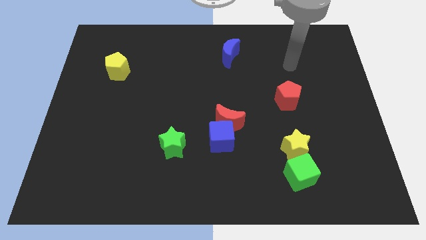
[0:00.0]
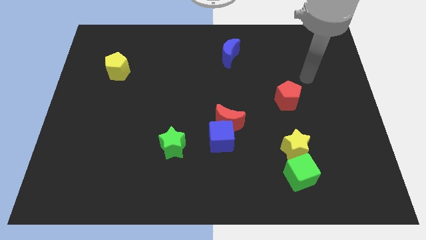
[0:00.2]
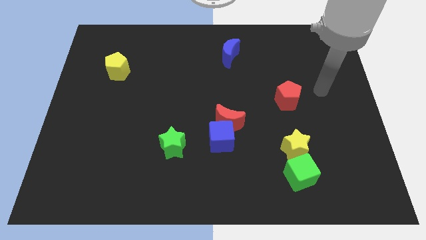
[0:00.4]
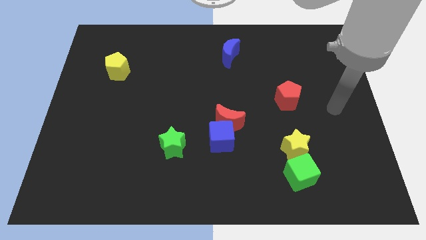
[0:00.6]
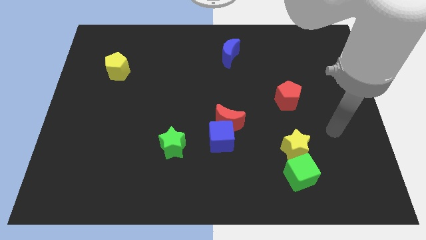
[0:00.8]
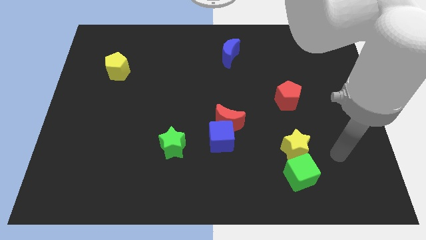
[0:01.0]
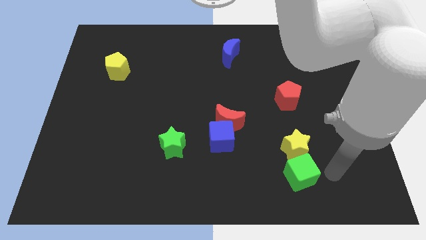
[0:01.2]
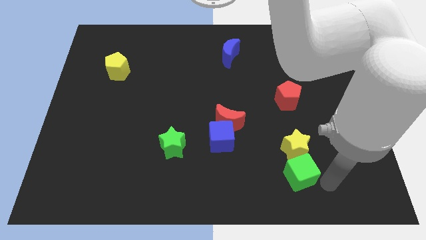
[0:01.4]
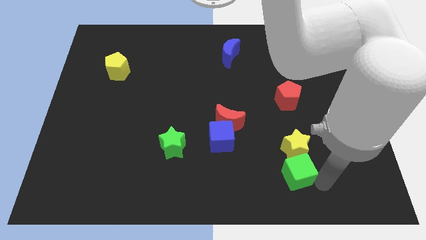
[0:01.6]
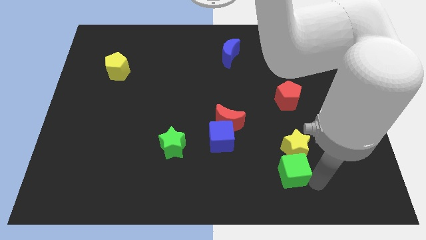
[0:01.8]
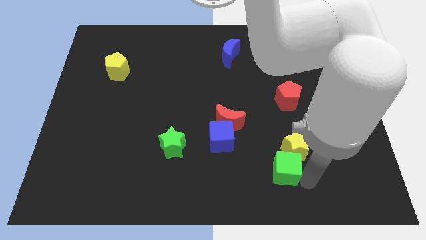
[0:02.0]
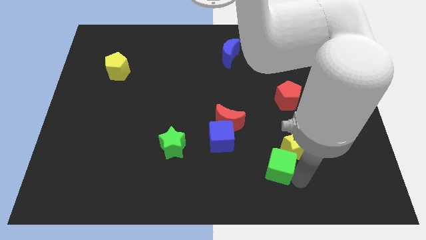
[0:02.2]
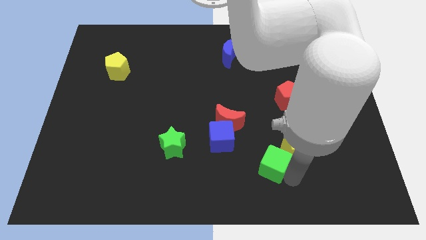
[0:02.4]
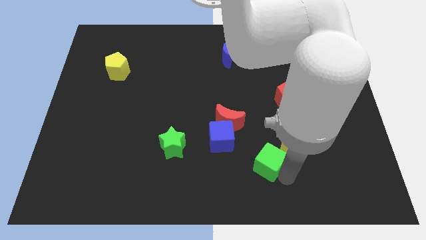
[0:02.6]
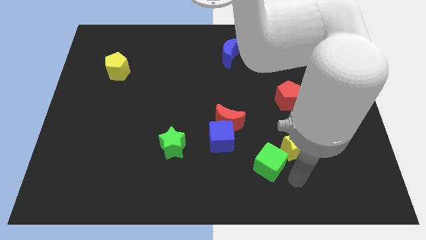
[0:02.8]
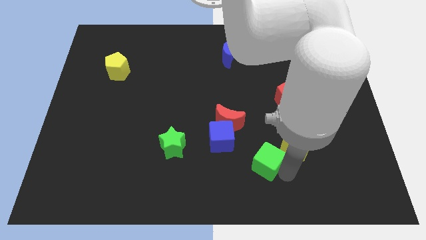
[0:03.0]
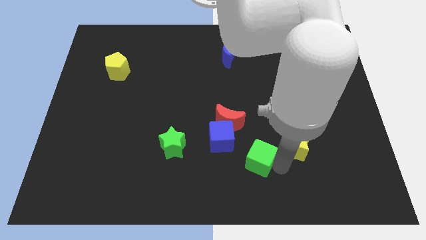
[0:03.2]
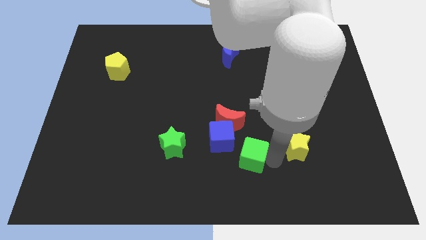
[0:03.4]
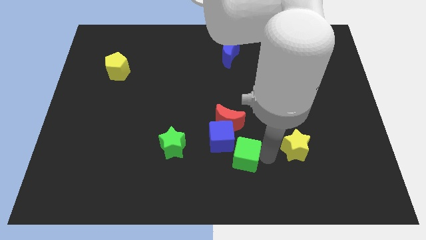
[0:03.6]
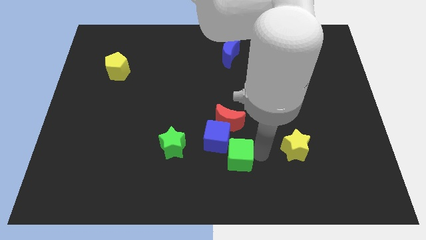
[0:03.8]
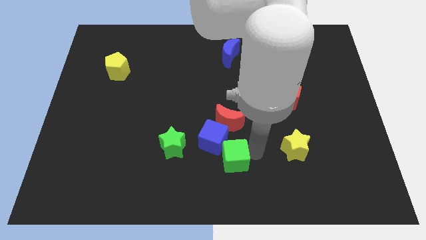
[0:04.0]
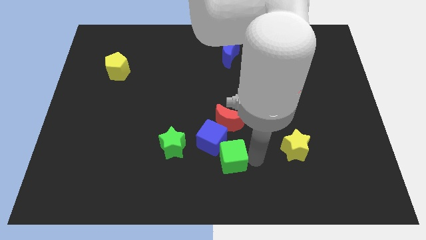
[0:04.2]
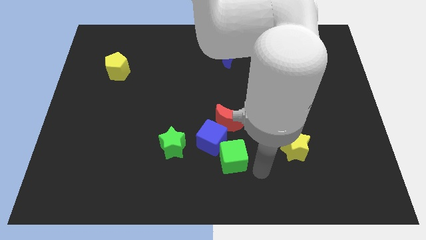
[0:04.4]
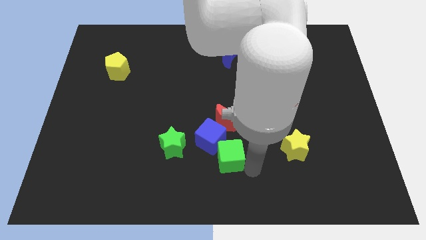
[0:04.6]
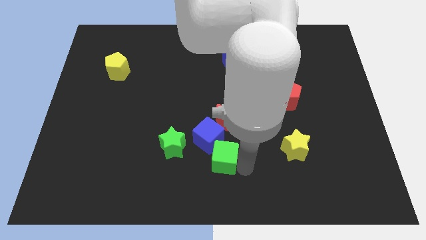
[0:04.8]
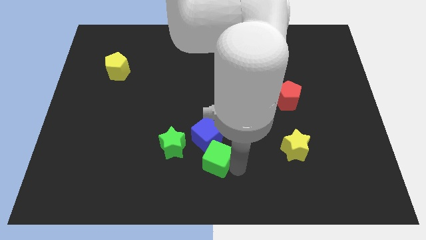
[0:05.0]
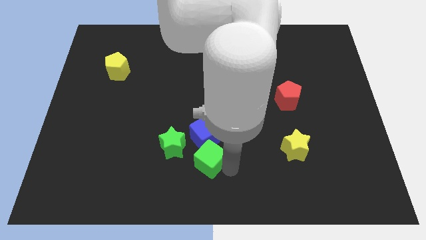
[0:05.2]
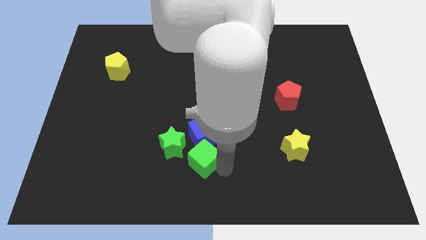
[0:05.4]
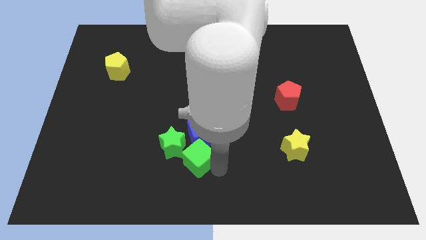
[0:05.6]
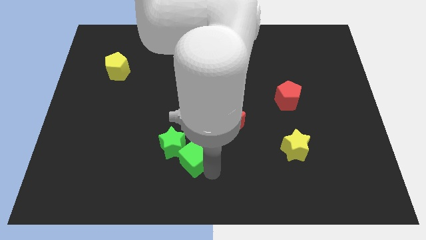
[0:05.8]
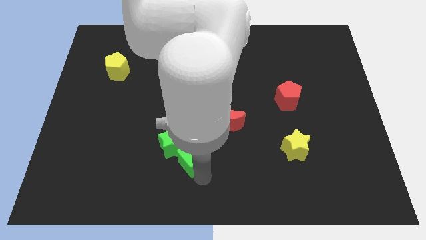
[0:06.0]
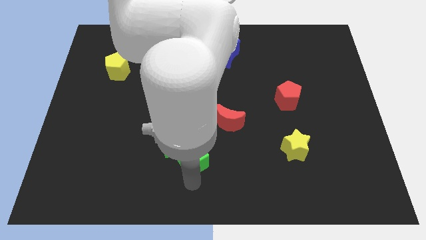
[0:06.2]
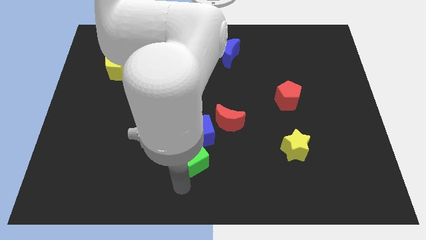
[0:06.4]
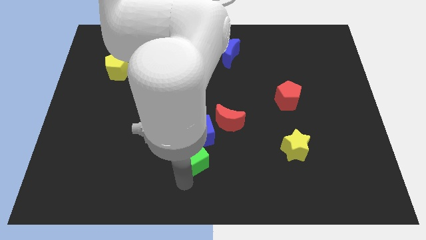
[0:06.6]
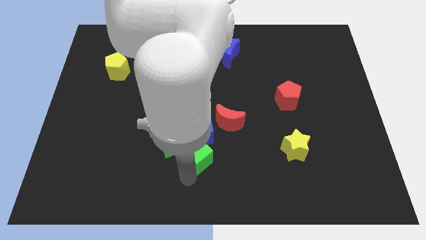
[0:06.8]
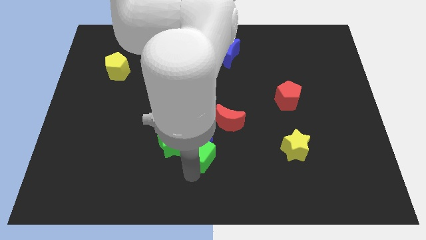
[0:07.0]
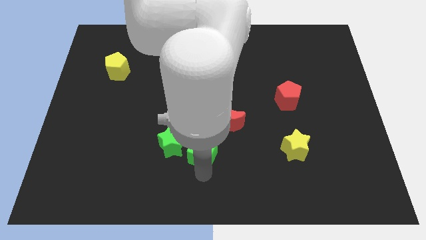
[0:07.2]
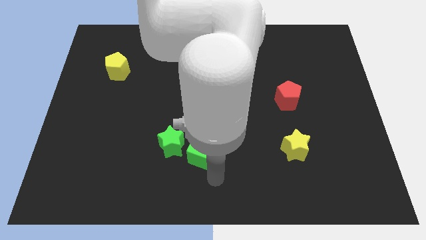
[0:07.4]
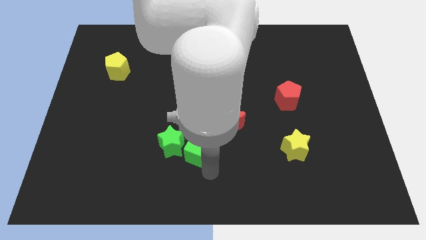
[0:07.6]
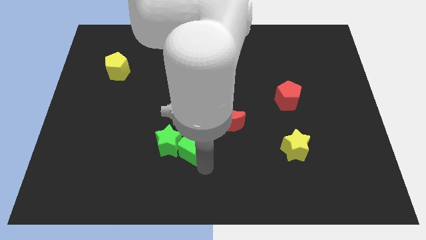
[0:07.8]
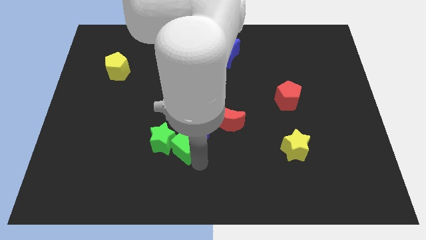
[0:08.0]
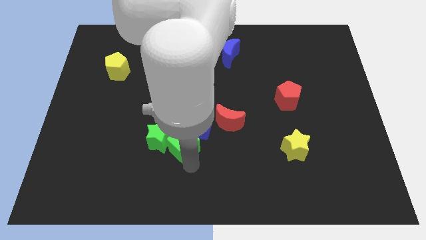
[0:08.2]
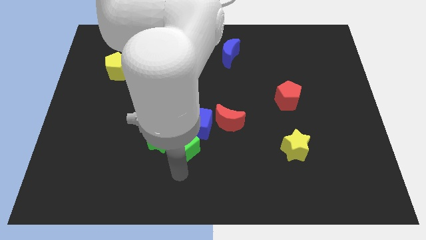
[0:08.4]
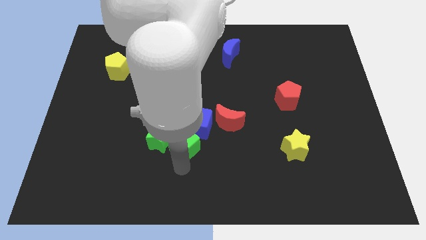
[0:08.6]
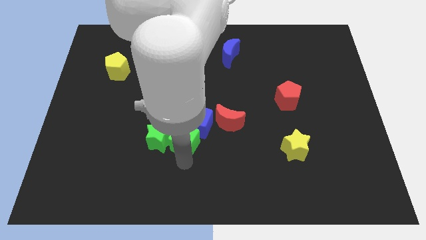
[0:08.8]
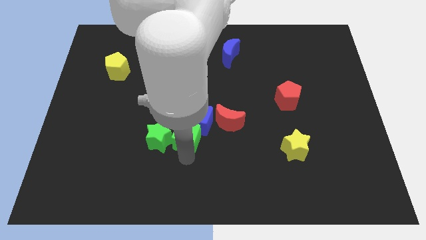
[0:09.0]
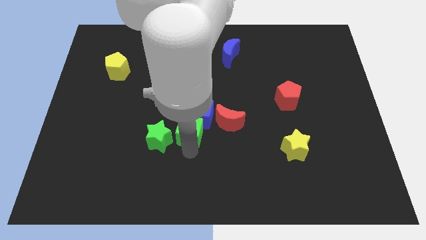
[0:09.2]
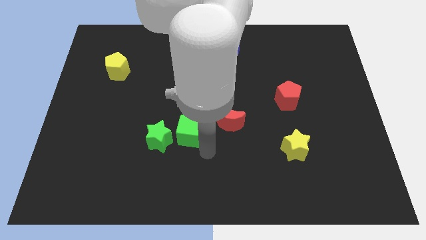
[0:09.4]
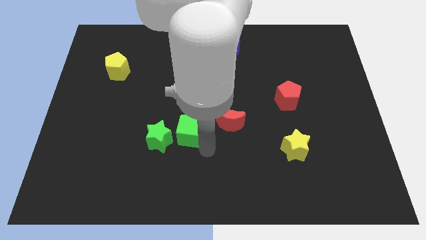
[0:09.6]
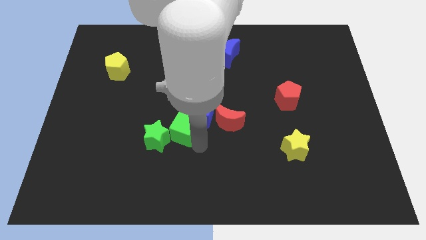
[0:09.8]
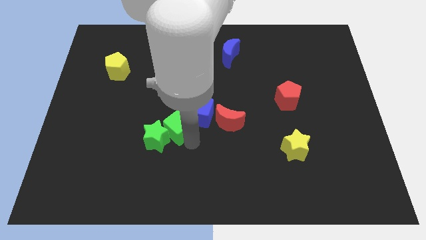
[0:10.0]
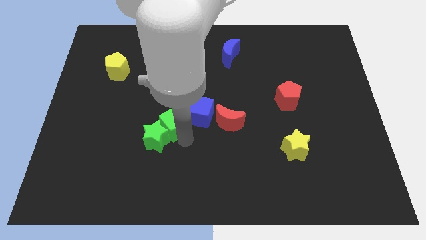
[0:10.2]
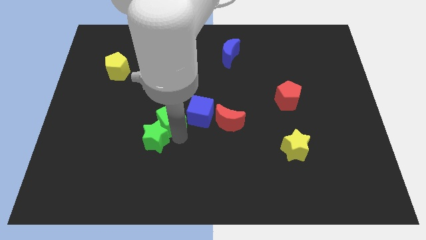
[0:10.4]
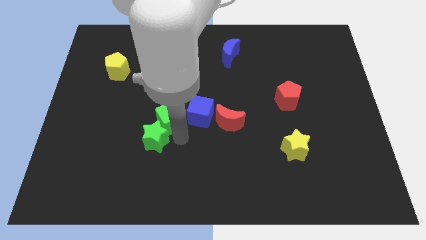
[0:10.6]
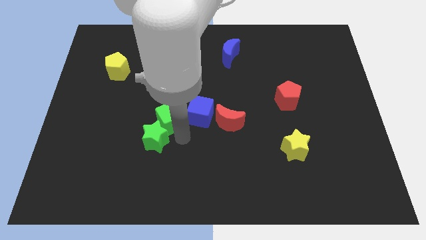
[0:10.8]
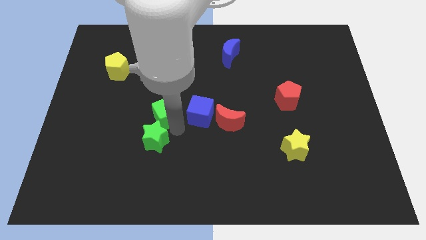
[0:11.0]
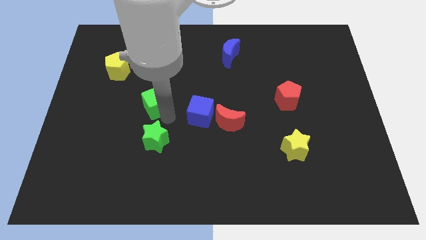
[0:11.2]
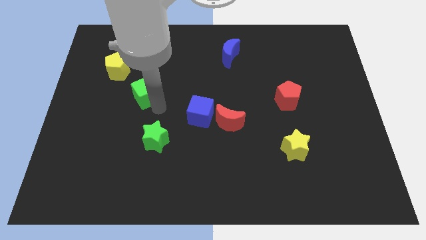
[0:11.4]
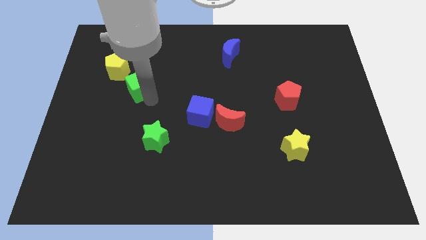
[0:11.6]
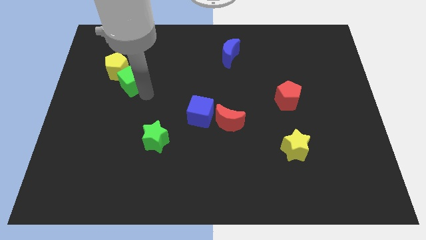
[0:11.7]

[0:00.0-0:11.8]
put the green cube next to the yellow pentagon

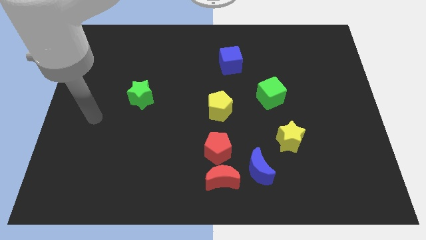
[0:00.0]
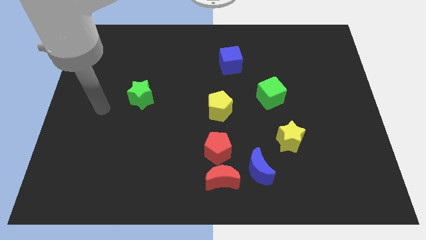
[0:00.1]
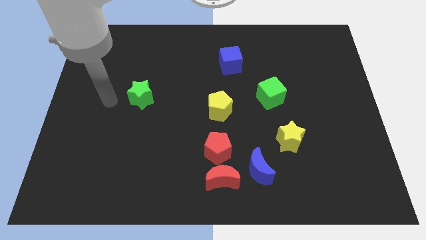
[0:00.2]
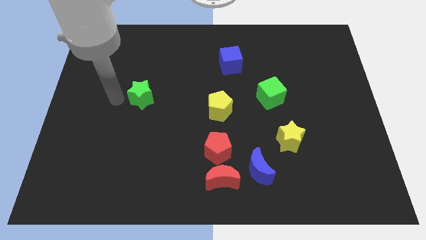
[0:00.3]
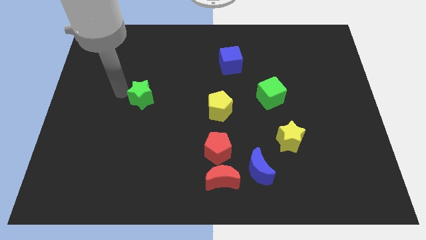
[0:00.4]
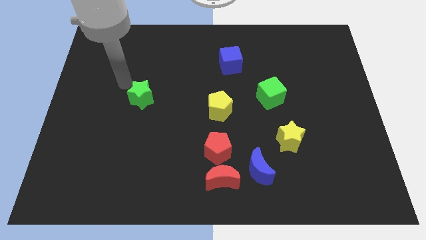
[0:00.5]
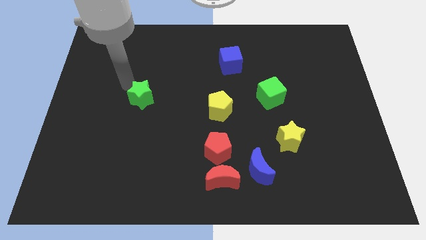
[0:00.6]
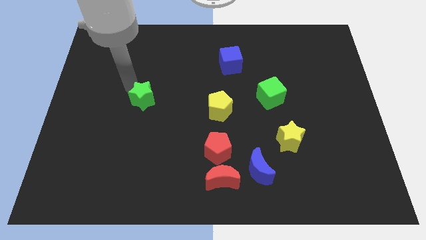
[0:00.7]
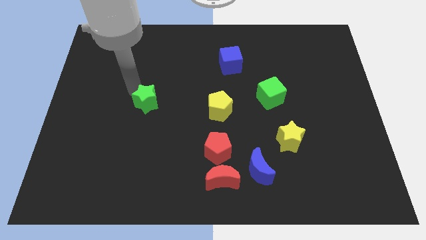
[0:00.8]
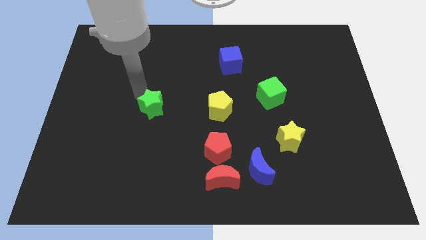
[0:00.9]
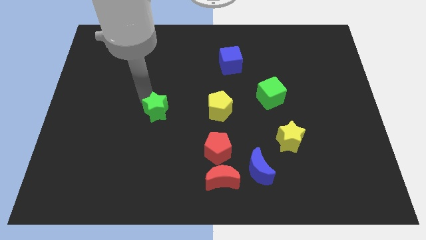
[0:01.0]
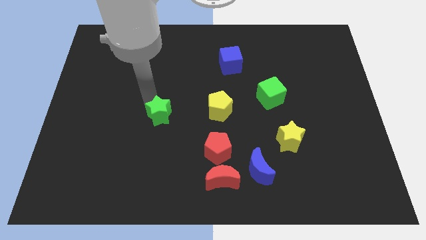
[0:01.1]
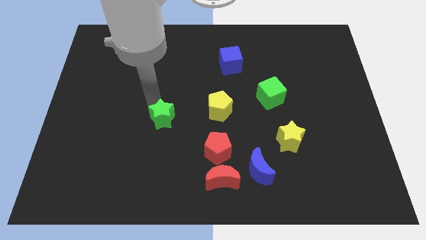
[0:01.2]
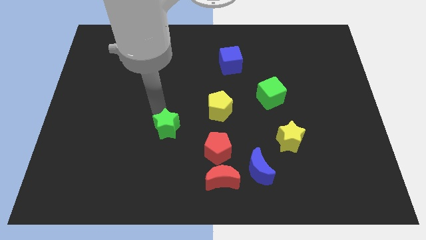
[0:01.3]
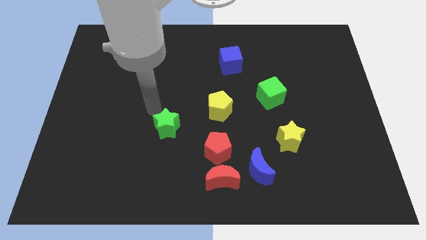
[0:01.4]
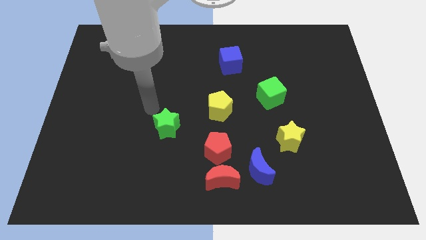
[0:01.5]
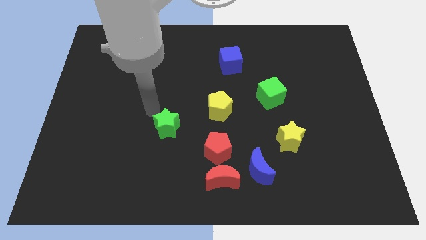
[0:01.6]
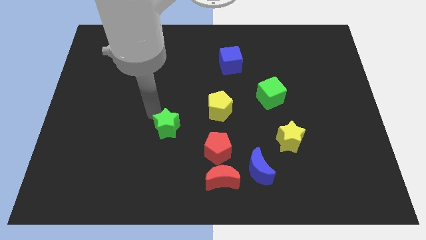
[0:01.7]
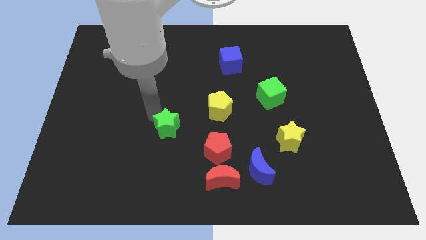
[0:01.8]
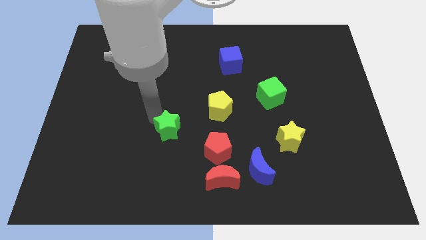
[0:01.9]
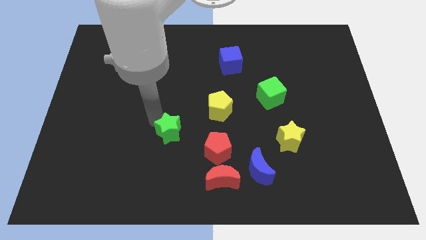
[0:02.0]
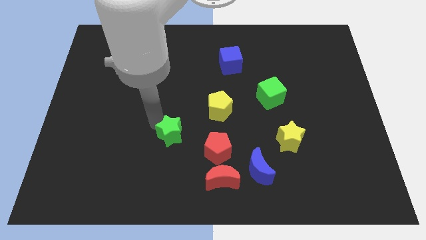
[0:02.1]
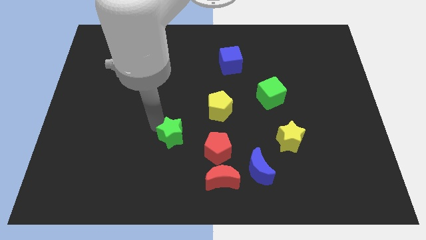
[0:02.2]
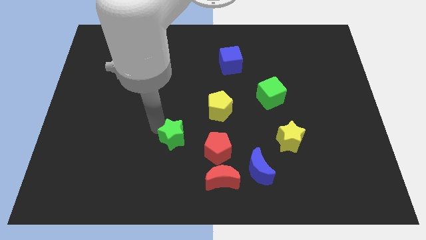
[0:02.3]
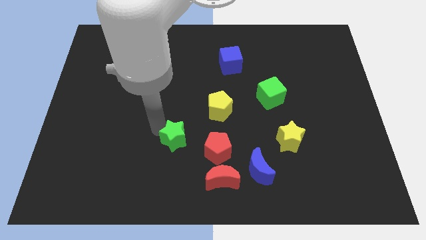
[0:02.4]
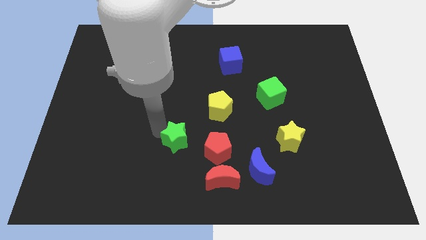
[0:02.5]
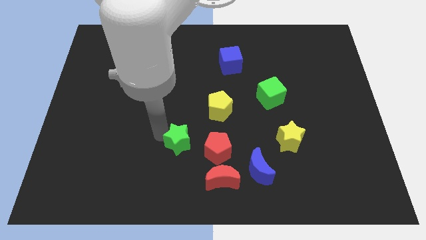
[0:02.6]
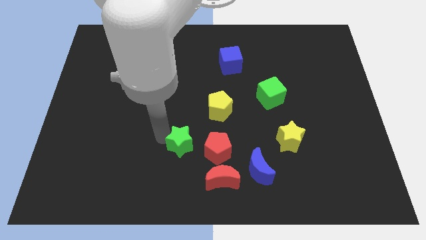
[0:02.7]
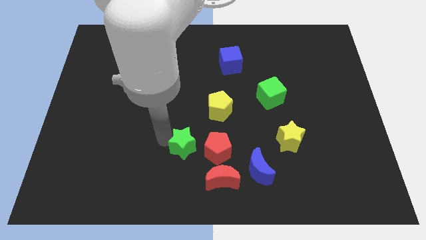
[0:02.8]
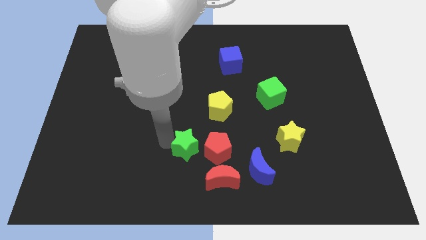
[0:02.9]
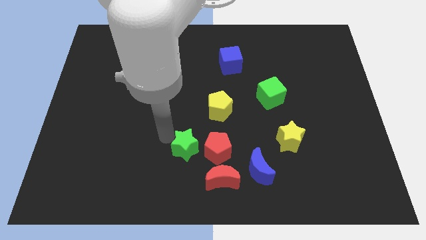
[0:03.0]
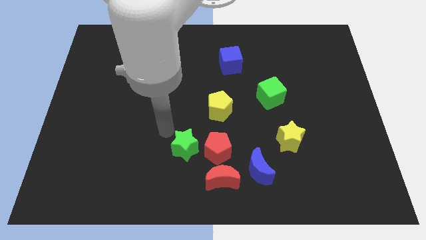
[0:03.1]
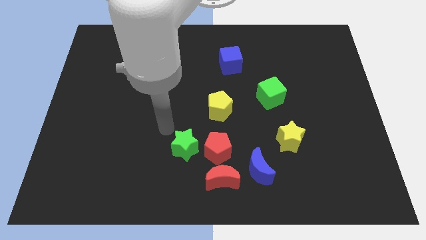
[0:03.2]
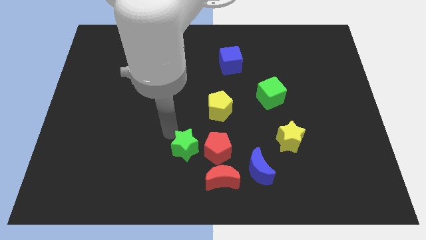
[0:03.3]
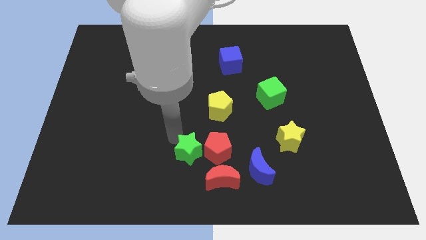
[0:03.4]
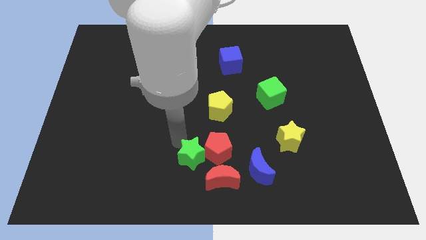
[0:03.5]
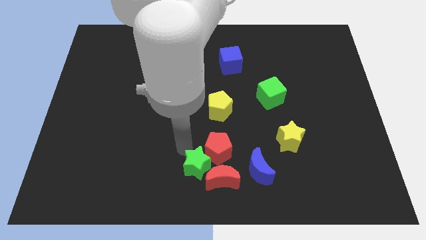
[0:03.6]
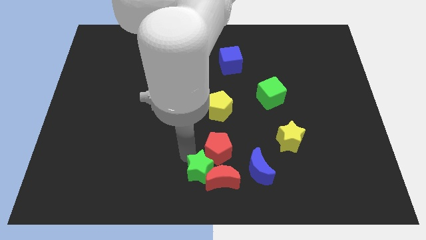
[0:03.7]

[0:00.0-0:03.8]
slide the green star close to the red moon
